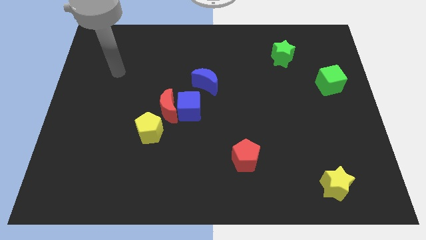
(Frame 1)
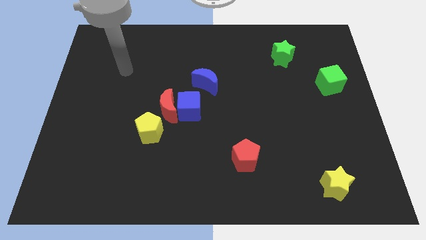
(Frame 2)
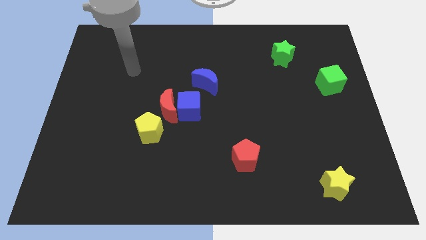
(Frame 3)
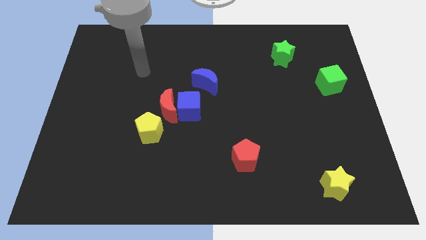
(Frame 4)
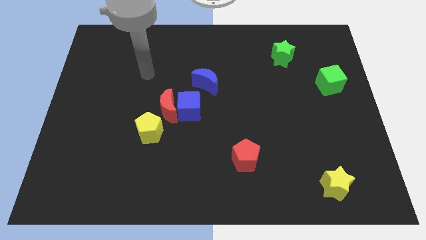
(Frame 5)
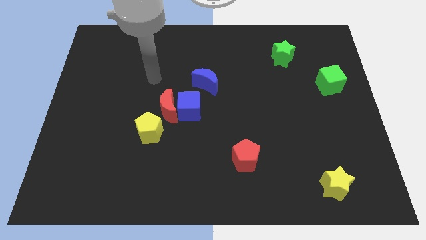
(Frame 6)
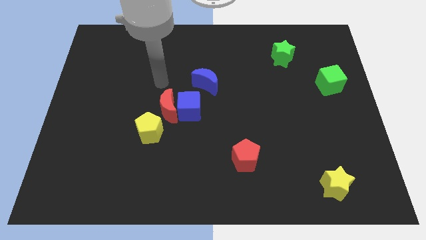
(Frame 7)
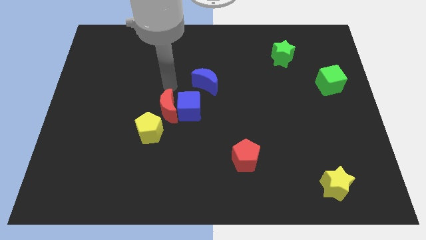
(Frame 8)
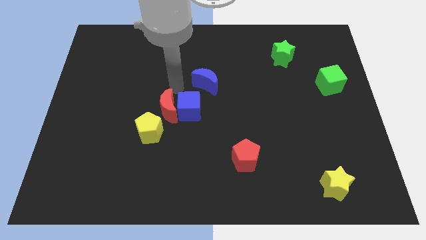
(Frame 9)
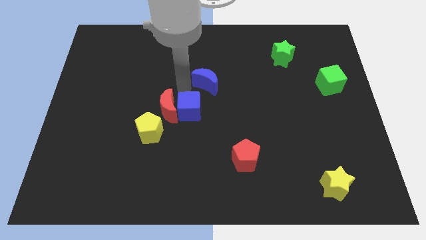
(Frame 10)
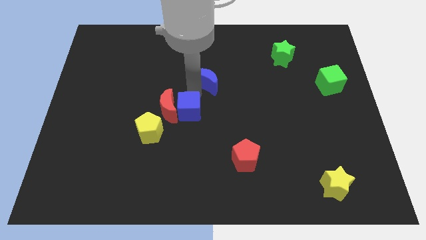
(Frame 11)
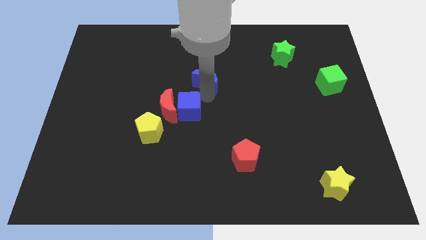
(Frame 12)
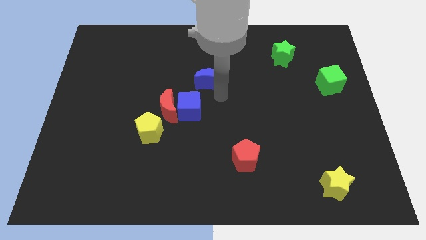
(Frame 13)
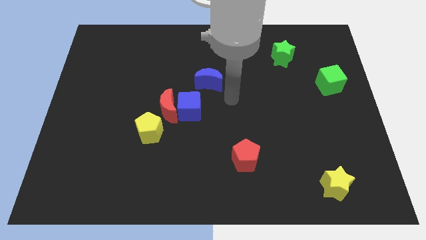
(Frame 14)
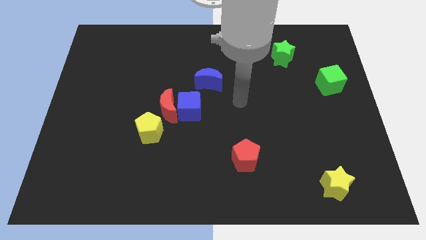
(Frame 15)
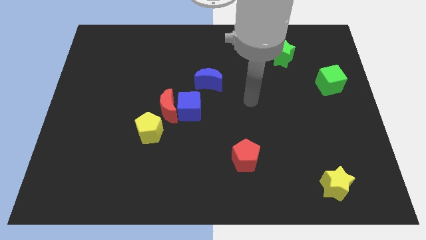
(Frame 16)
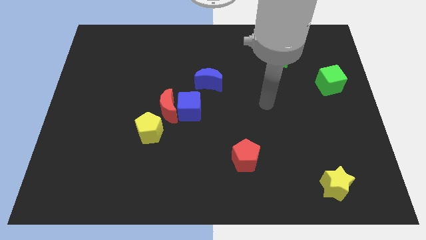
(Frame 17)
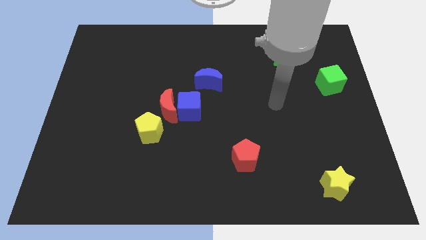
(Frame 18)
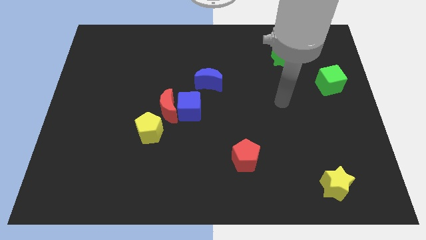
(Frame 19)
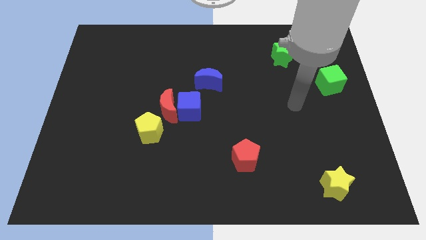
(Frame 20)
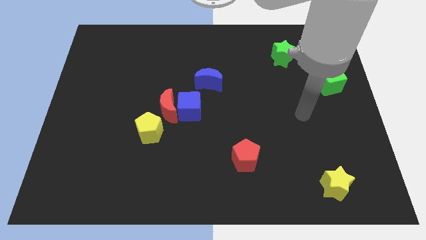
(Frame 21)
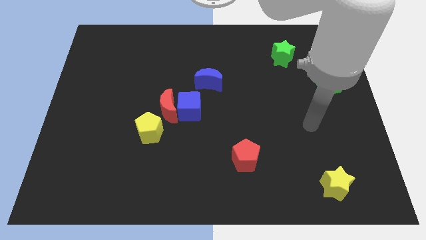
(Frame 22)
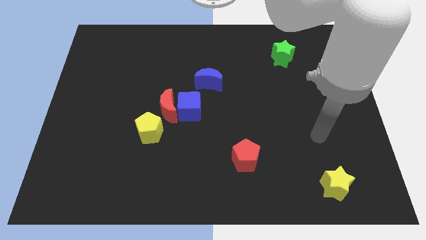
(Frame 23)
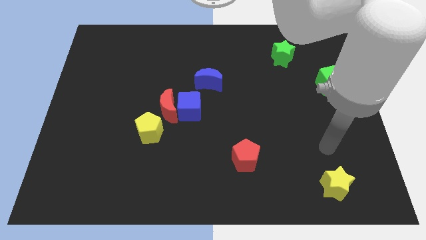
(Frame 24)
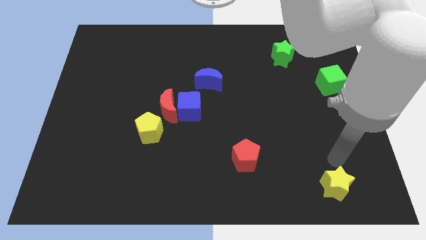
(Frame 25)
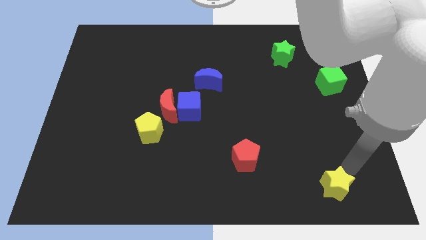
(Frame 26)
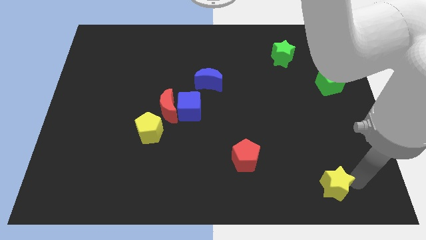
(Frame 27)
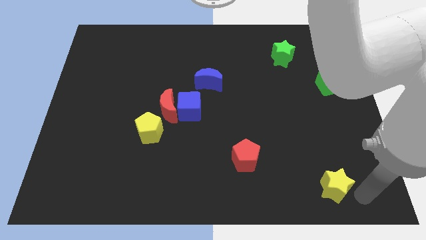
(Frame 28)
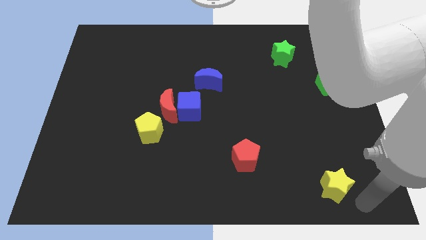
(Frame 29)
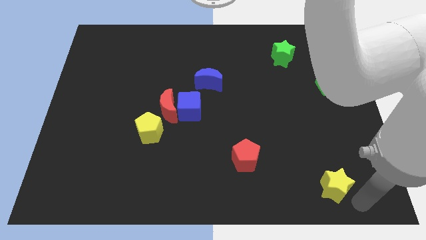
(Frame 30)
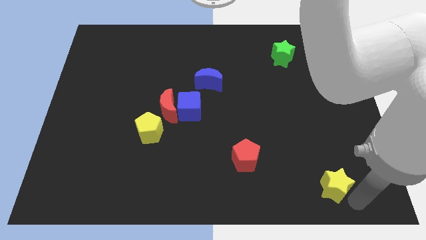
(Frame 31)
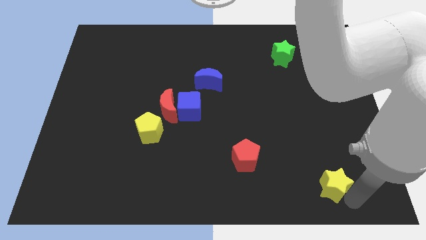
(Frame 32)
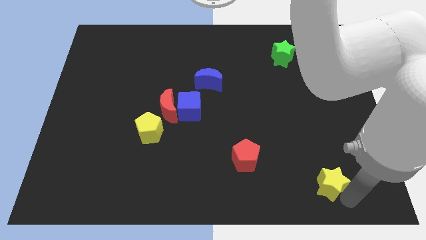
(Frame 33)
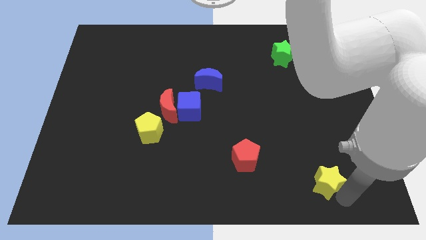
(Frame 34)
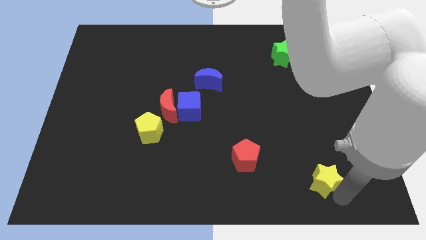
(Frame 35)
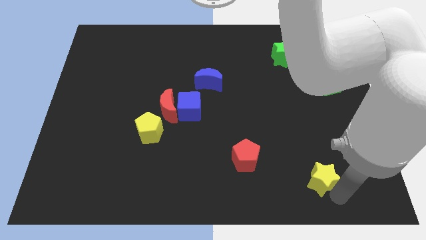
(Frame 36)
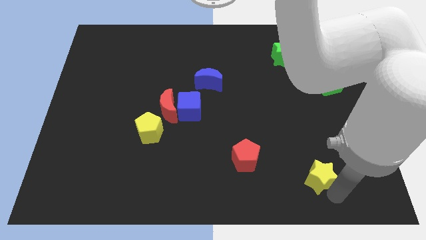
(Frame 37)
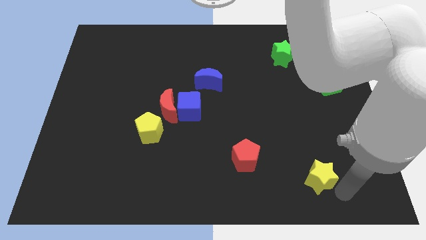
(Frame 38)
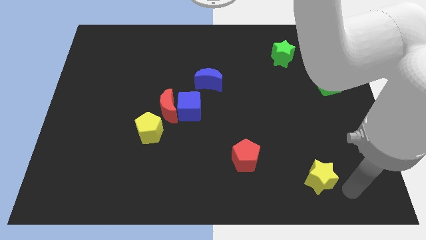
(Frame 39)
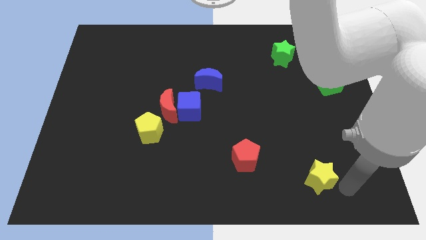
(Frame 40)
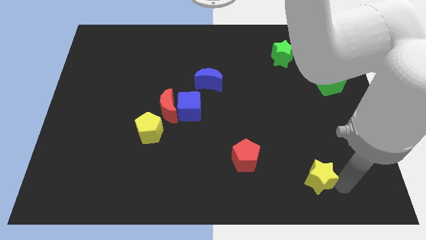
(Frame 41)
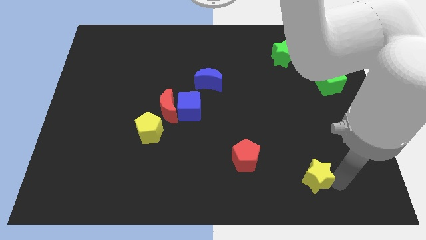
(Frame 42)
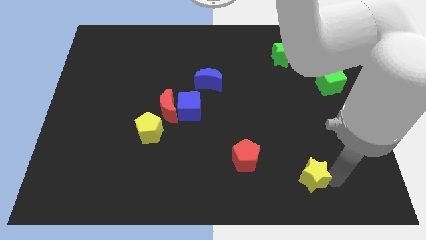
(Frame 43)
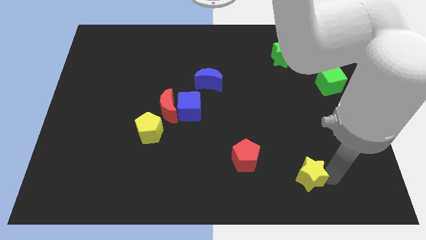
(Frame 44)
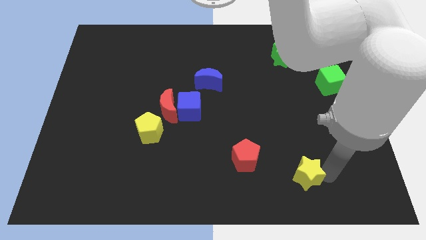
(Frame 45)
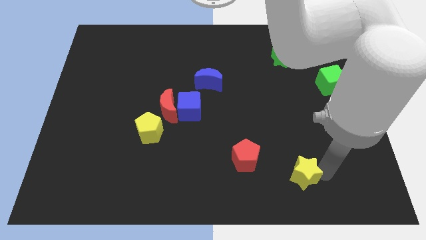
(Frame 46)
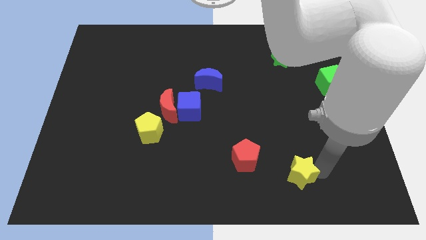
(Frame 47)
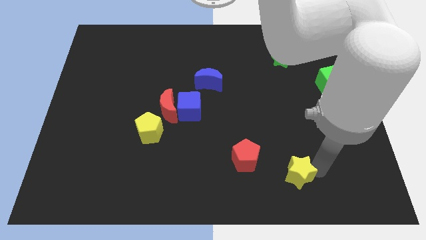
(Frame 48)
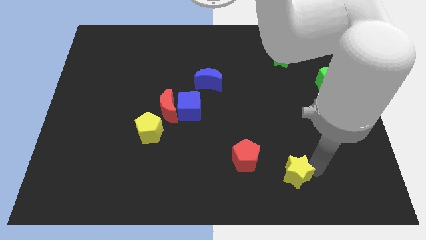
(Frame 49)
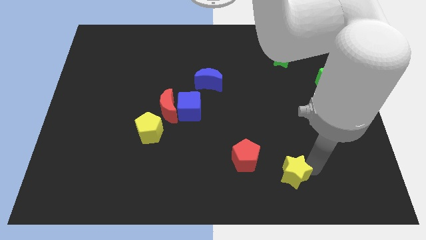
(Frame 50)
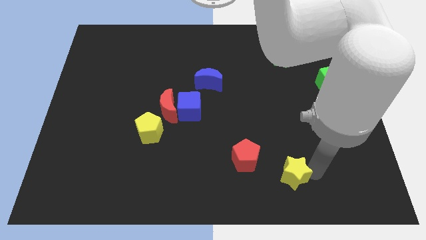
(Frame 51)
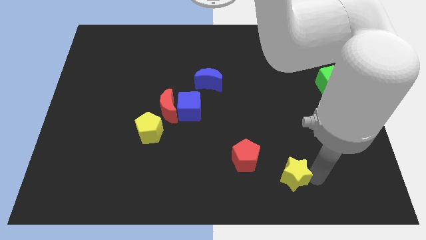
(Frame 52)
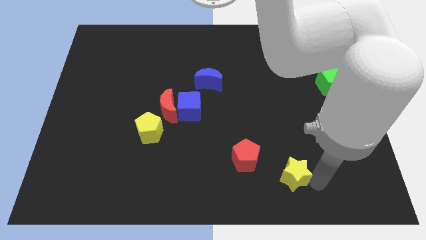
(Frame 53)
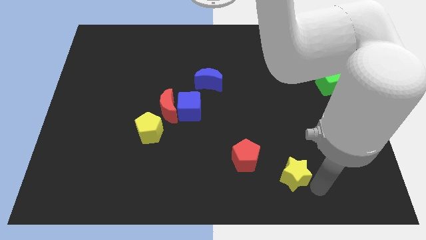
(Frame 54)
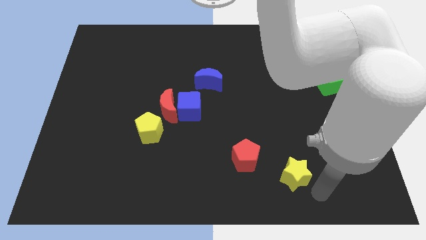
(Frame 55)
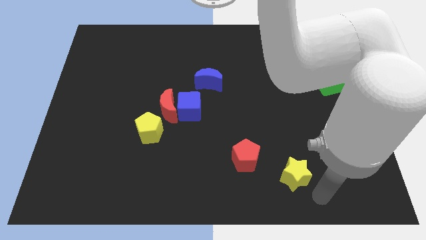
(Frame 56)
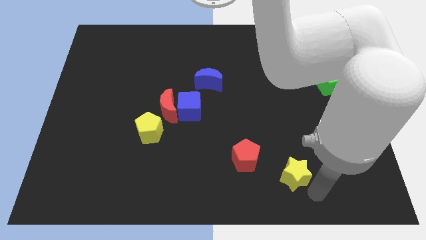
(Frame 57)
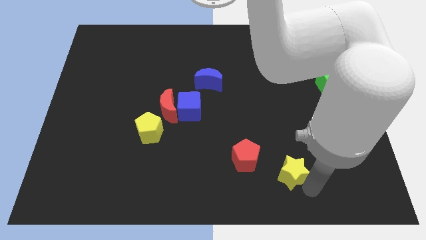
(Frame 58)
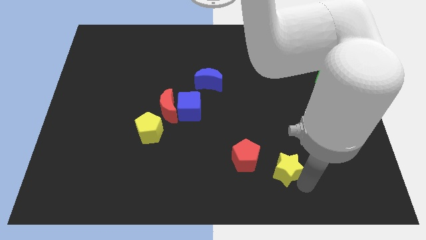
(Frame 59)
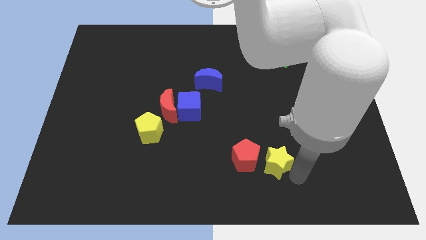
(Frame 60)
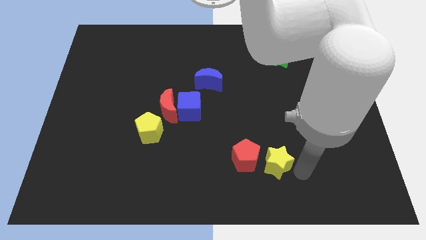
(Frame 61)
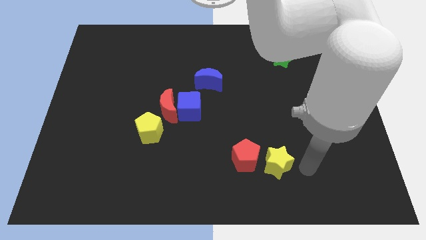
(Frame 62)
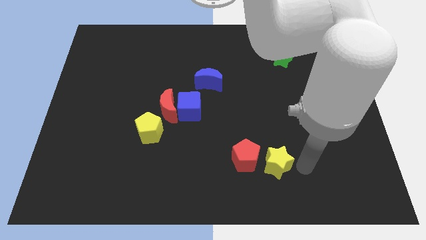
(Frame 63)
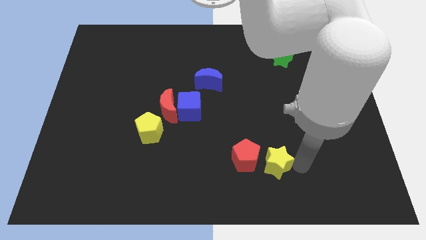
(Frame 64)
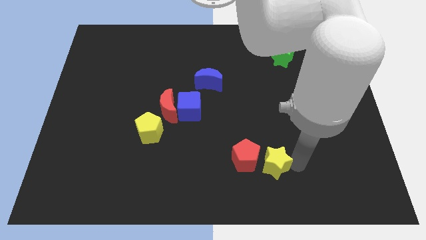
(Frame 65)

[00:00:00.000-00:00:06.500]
put the yellow star close to the red pentagon

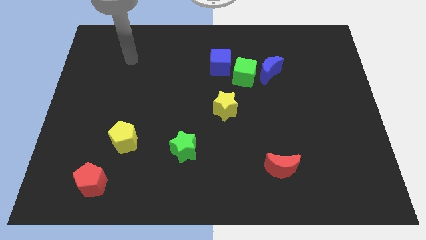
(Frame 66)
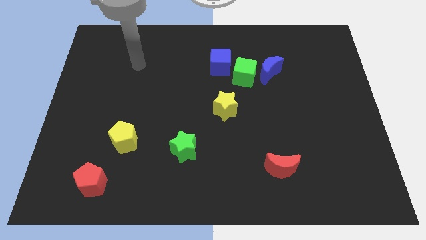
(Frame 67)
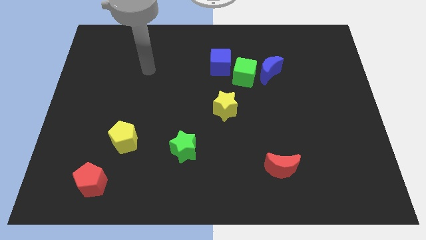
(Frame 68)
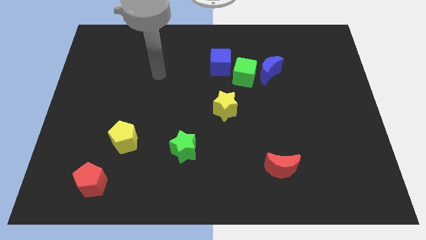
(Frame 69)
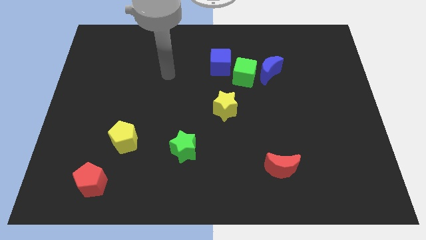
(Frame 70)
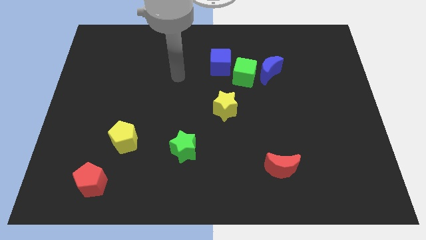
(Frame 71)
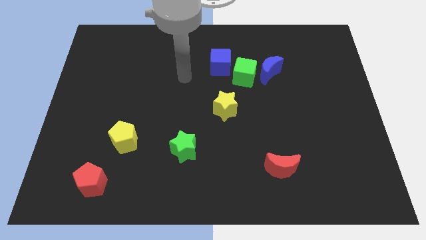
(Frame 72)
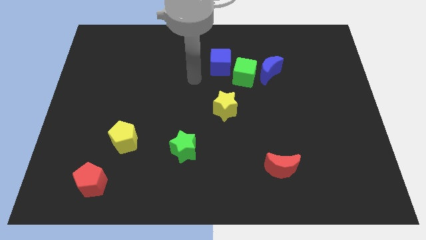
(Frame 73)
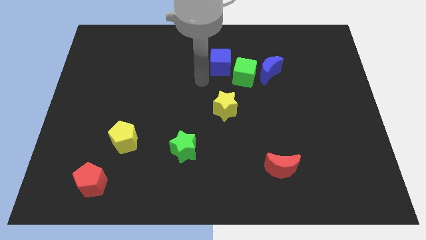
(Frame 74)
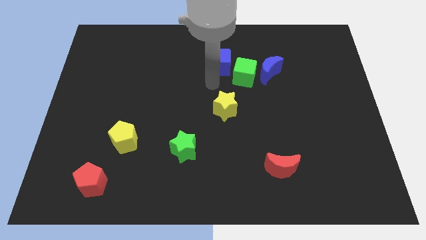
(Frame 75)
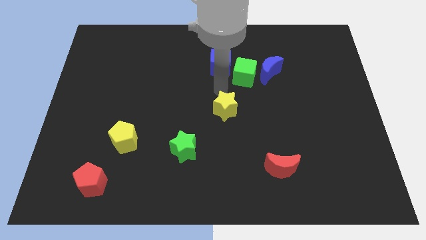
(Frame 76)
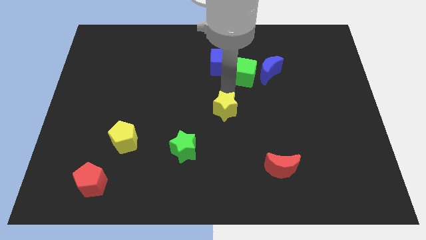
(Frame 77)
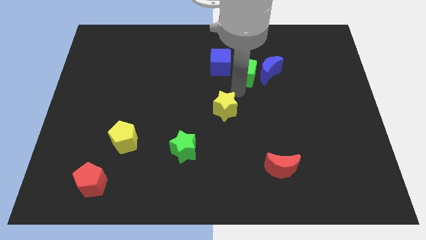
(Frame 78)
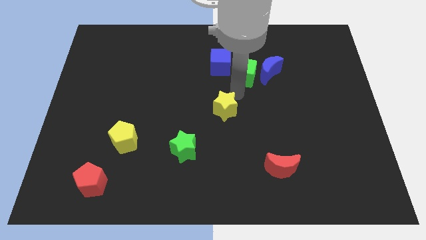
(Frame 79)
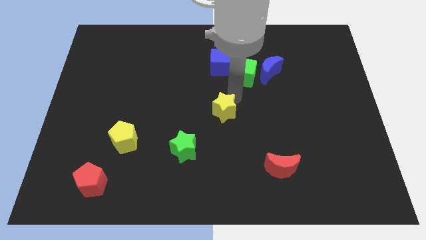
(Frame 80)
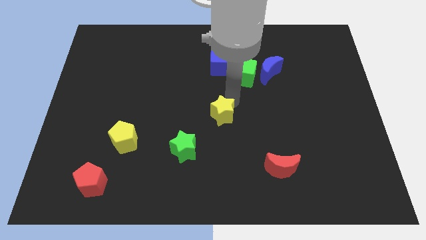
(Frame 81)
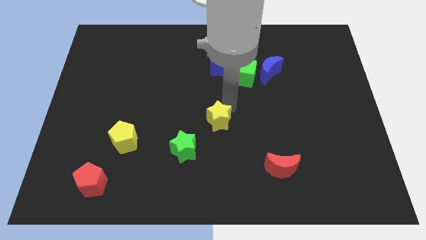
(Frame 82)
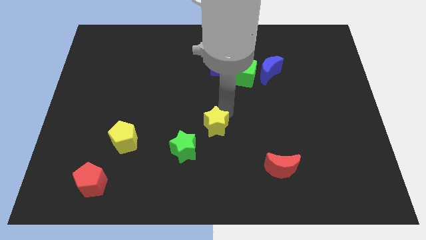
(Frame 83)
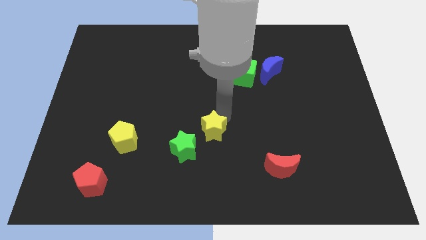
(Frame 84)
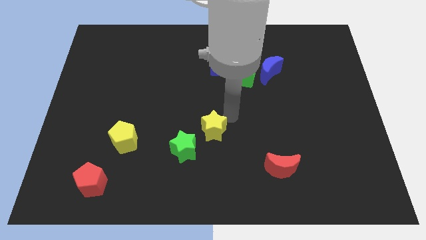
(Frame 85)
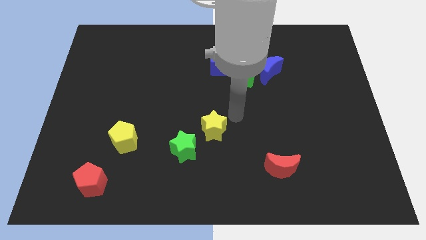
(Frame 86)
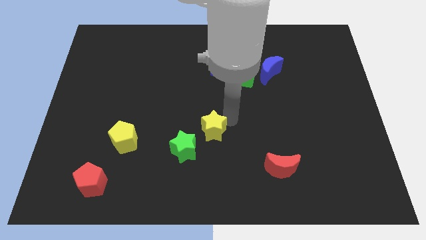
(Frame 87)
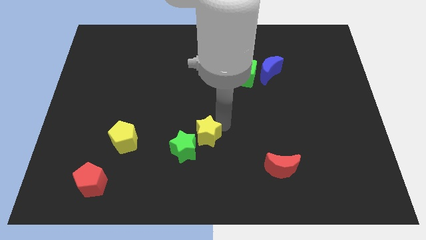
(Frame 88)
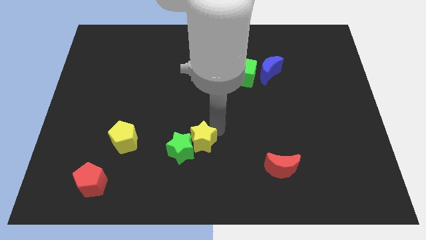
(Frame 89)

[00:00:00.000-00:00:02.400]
push the yellow star towards the green star
